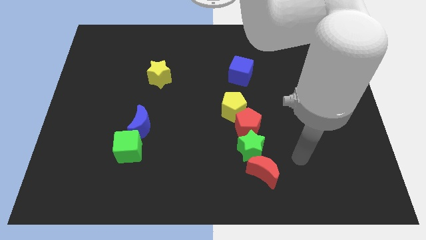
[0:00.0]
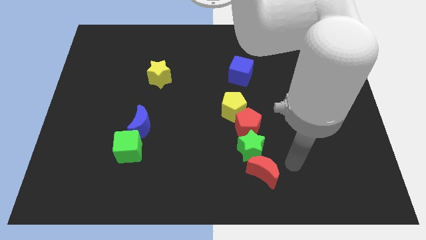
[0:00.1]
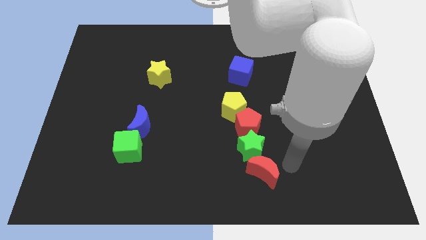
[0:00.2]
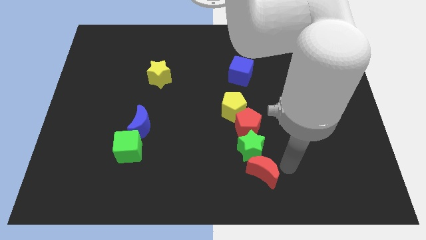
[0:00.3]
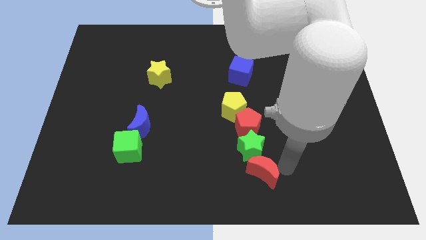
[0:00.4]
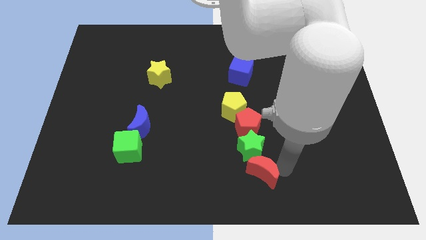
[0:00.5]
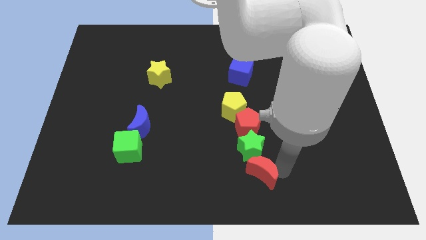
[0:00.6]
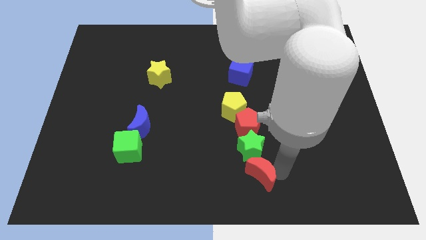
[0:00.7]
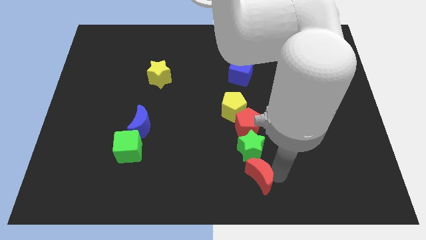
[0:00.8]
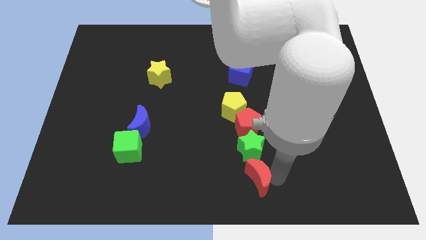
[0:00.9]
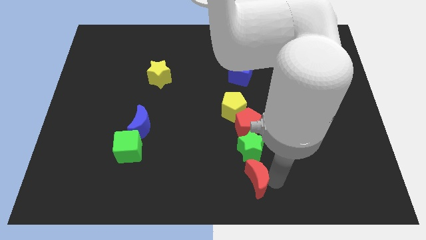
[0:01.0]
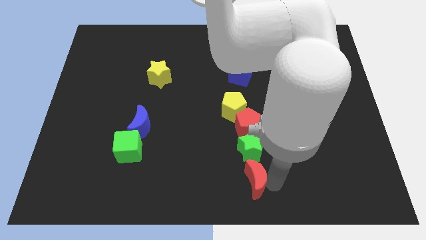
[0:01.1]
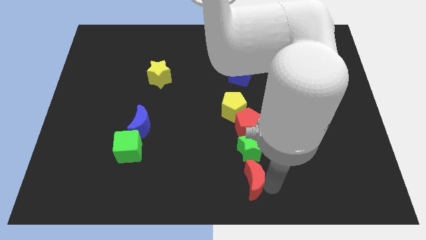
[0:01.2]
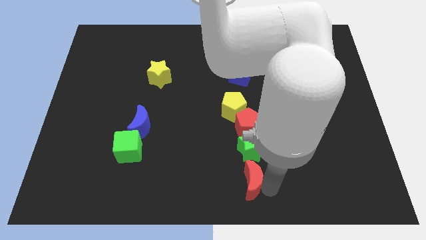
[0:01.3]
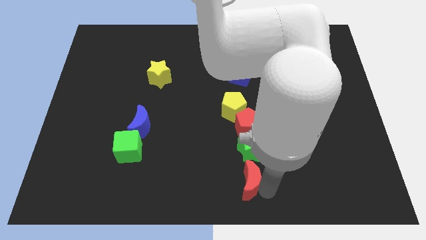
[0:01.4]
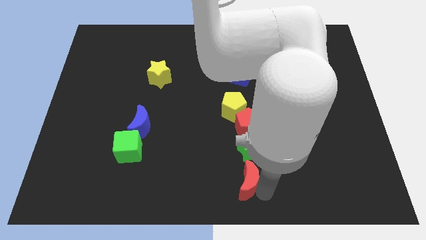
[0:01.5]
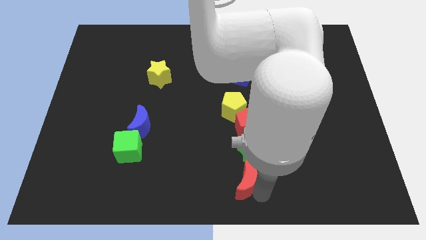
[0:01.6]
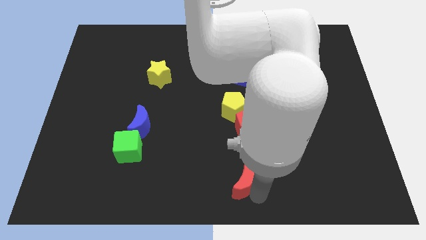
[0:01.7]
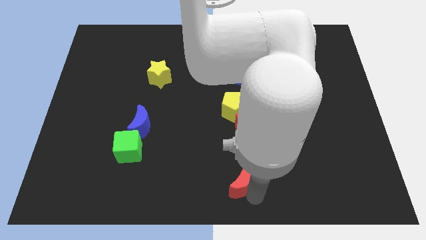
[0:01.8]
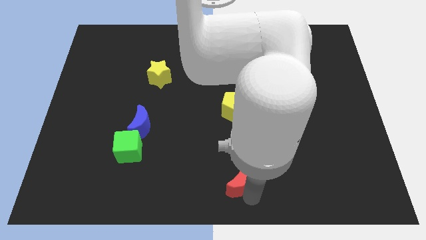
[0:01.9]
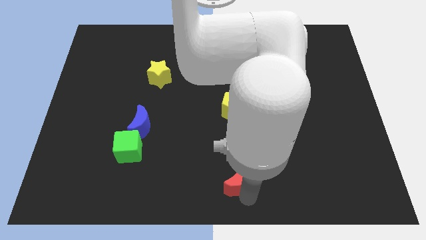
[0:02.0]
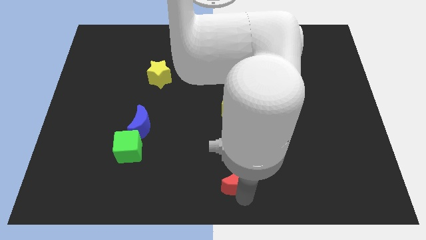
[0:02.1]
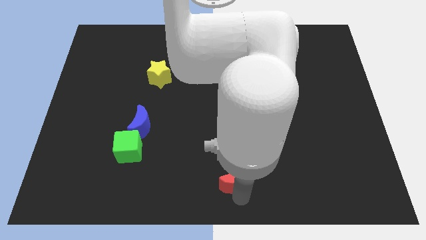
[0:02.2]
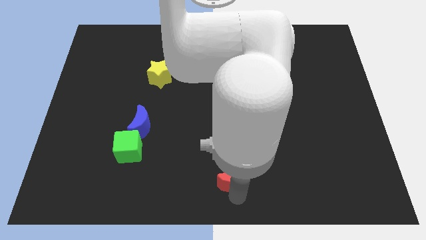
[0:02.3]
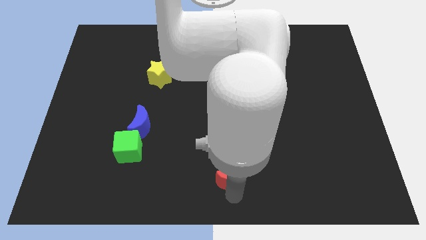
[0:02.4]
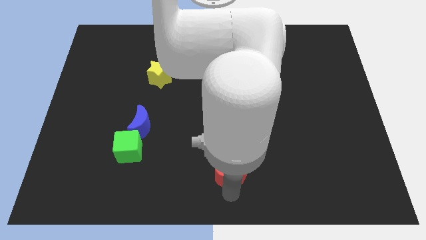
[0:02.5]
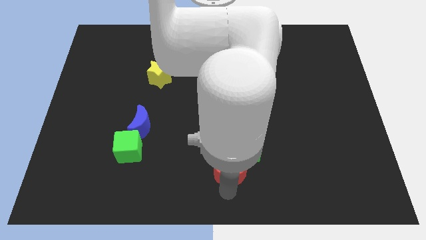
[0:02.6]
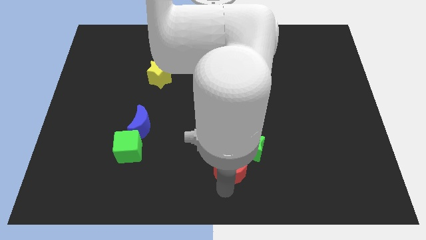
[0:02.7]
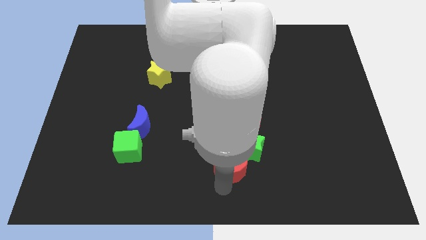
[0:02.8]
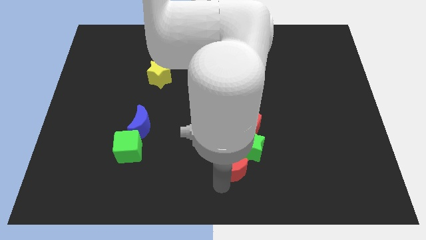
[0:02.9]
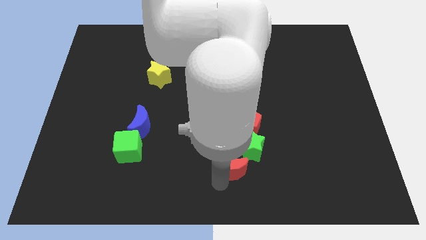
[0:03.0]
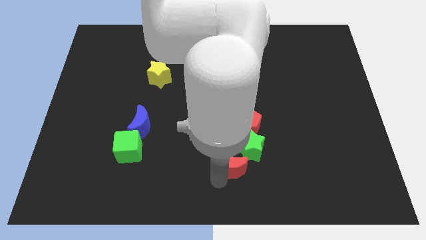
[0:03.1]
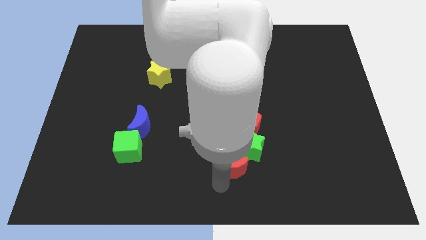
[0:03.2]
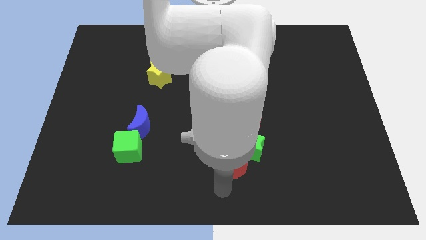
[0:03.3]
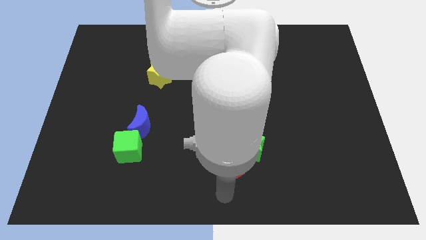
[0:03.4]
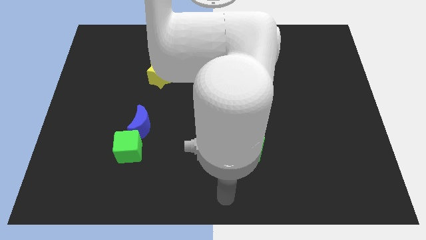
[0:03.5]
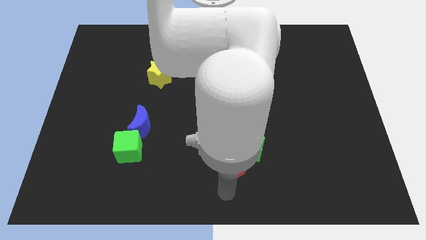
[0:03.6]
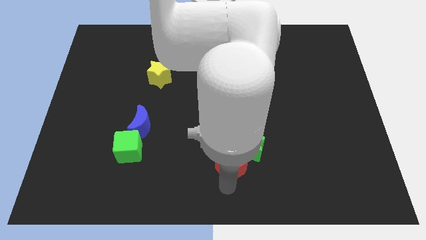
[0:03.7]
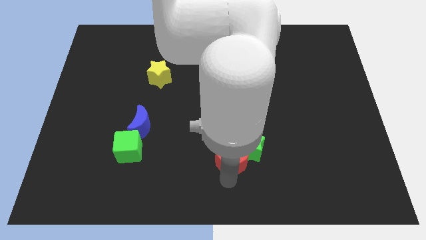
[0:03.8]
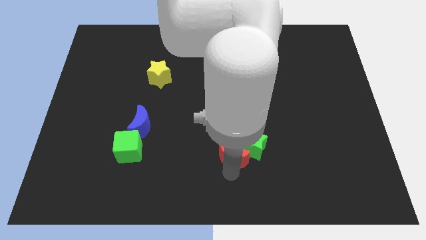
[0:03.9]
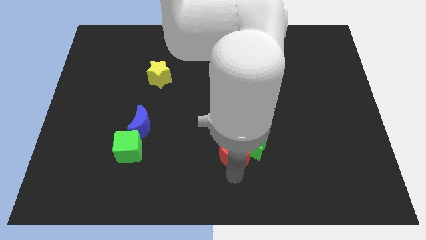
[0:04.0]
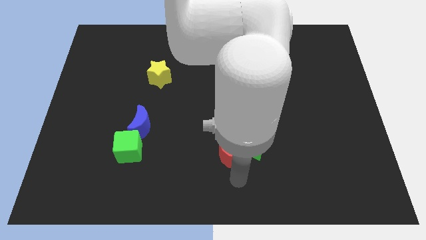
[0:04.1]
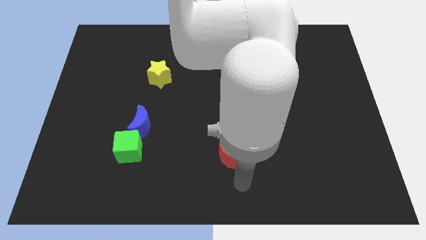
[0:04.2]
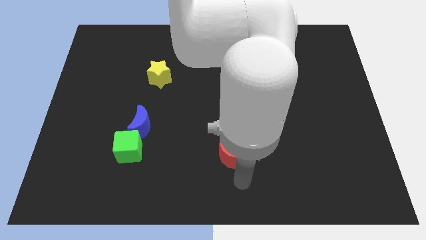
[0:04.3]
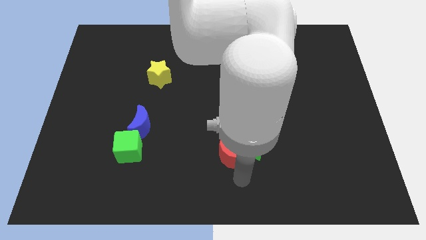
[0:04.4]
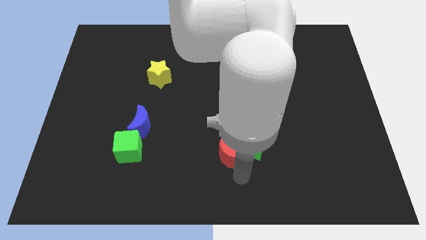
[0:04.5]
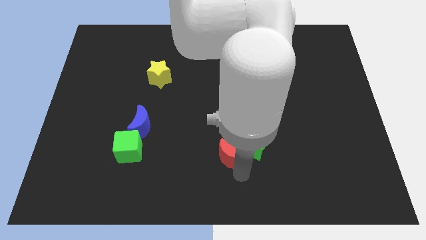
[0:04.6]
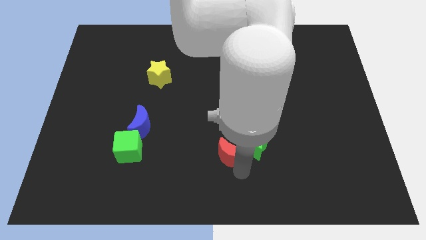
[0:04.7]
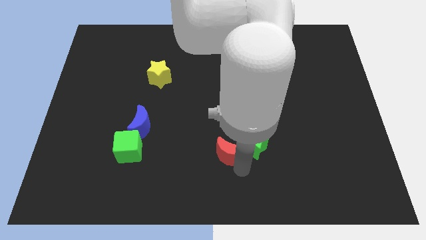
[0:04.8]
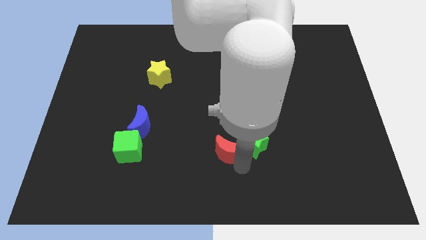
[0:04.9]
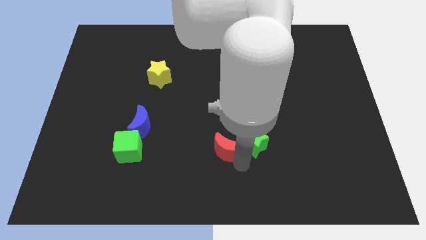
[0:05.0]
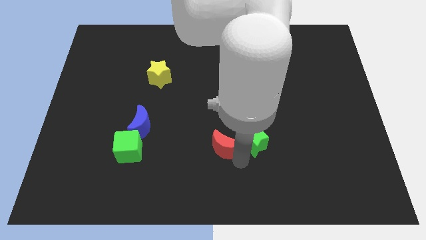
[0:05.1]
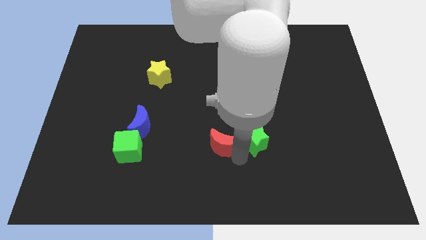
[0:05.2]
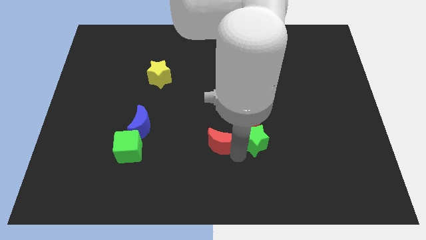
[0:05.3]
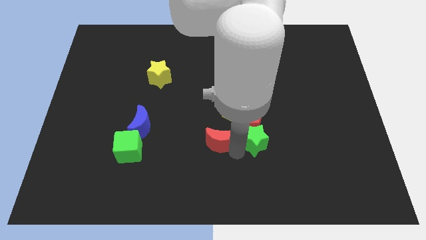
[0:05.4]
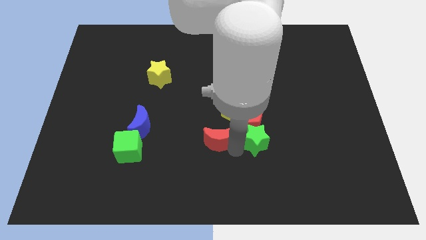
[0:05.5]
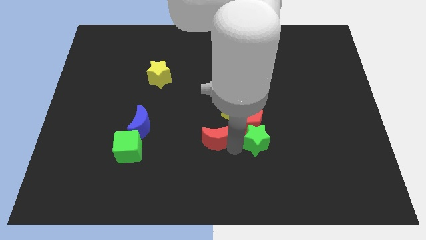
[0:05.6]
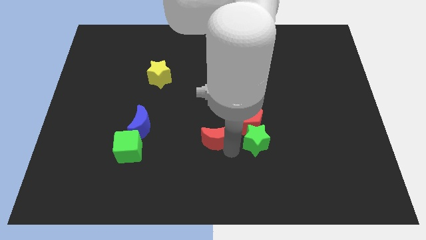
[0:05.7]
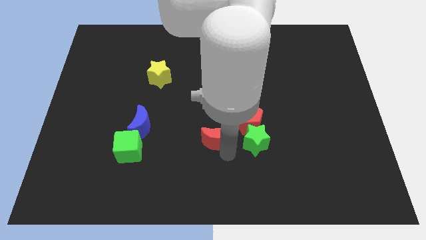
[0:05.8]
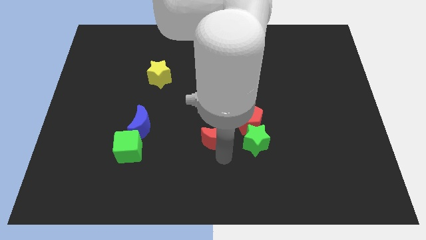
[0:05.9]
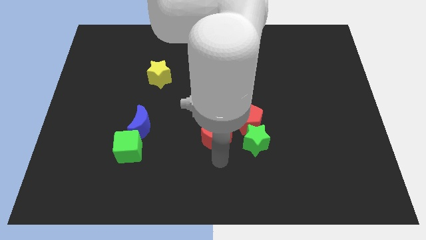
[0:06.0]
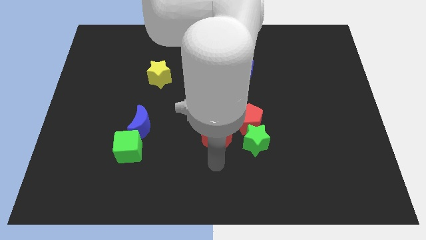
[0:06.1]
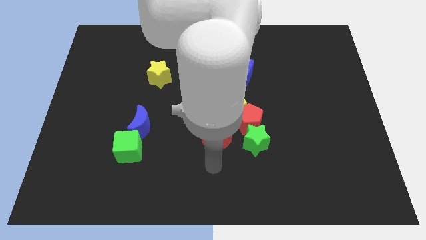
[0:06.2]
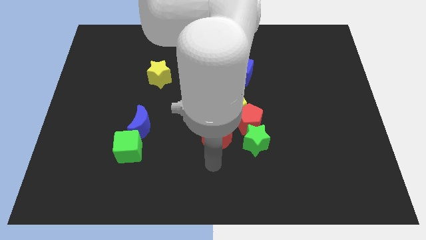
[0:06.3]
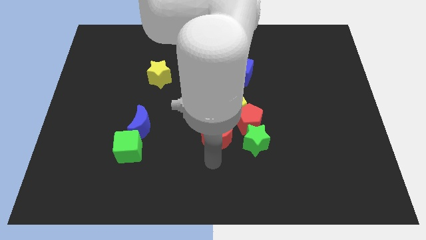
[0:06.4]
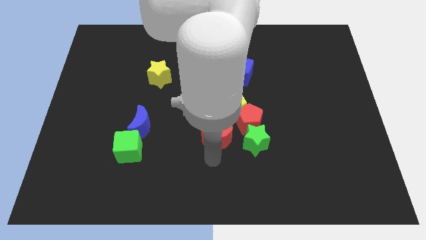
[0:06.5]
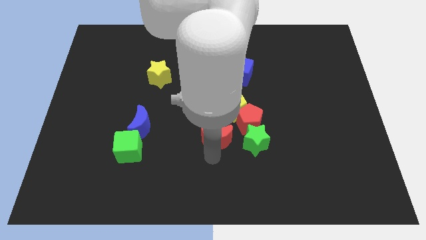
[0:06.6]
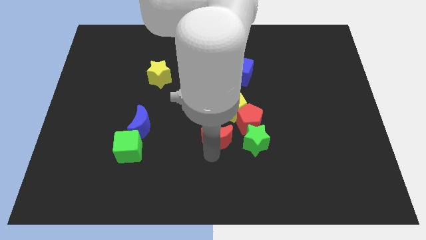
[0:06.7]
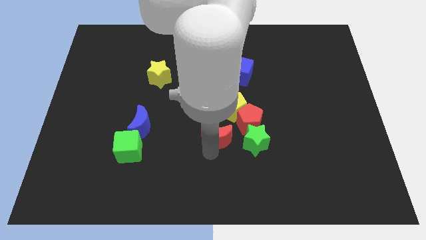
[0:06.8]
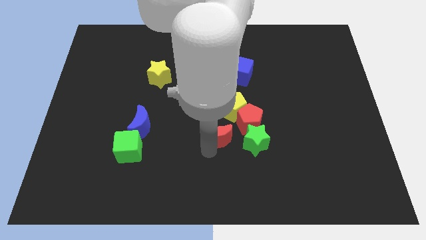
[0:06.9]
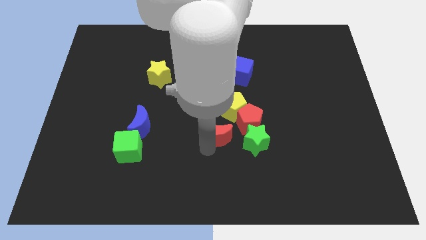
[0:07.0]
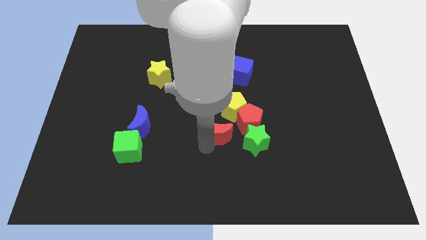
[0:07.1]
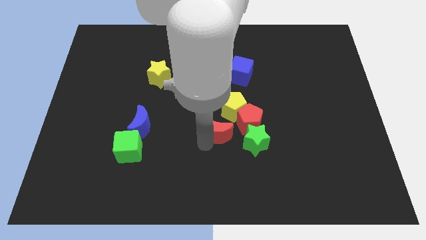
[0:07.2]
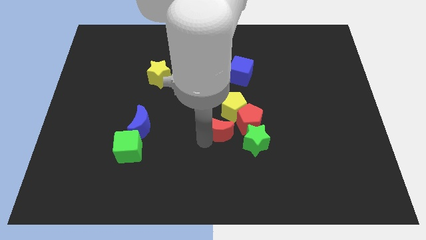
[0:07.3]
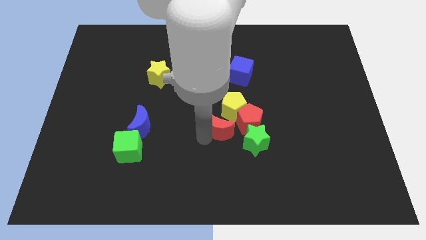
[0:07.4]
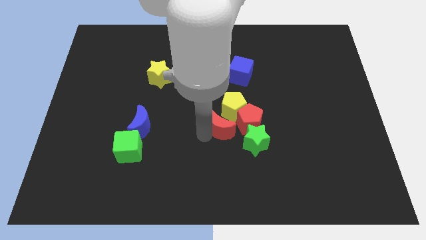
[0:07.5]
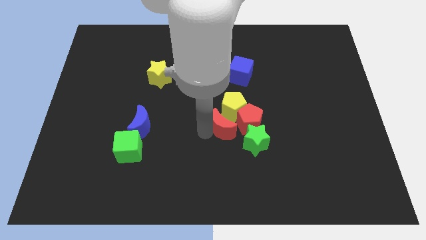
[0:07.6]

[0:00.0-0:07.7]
move the red moon to the yellow pentagon

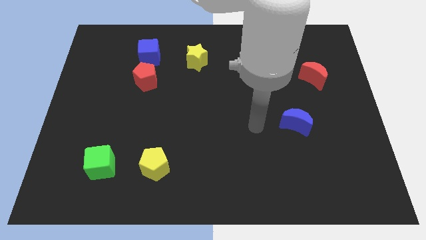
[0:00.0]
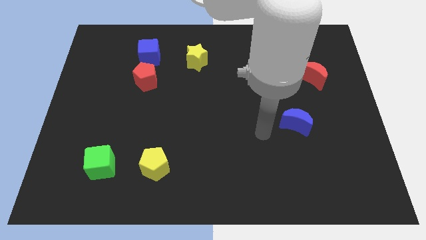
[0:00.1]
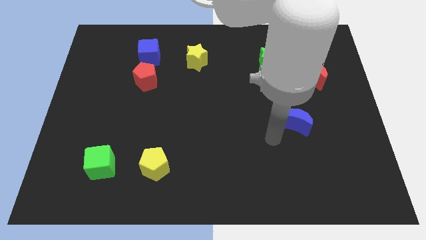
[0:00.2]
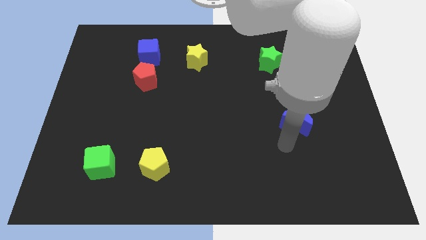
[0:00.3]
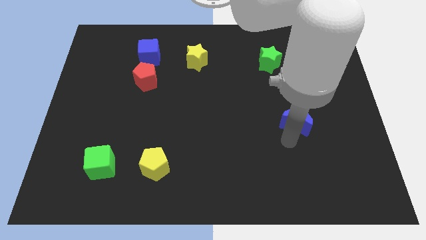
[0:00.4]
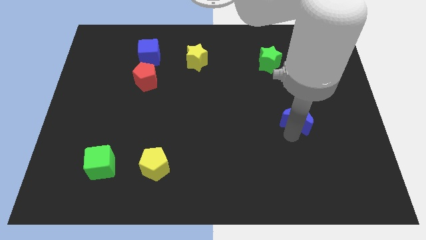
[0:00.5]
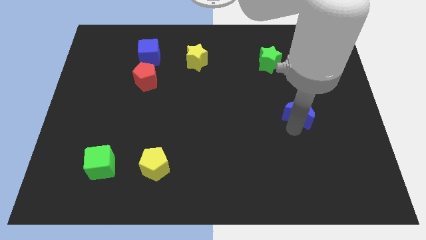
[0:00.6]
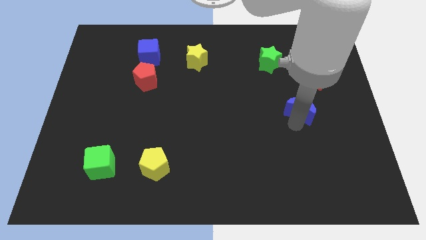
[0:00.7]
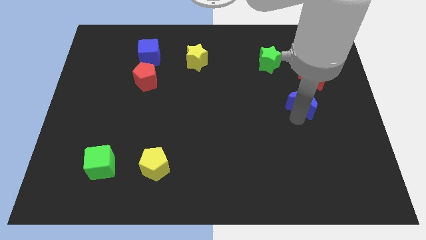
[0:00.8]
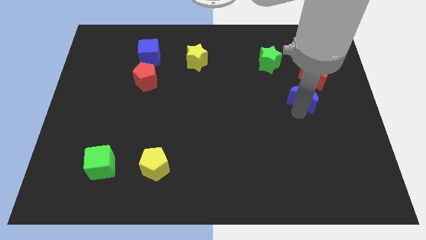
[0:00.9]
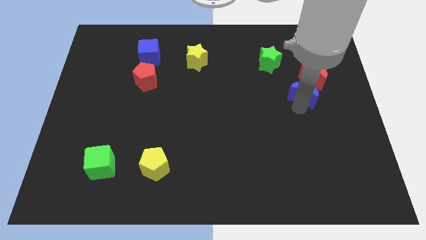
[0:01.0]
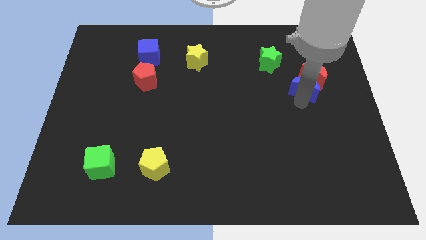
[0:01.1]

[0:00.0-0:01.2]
put the blue moon to the red moon
